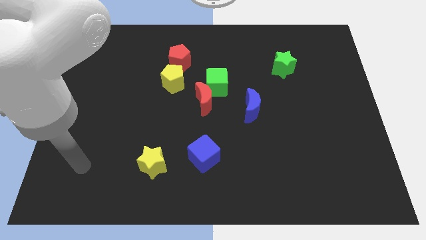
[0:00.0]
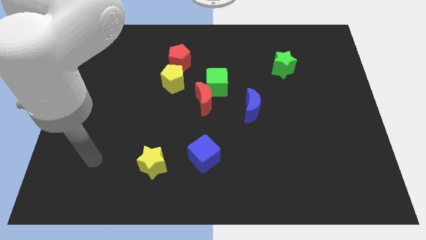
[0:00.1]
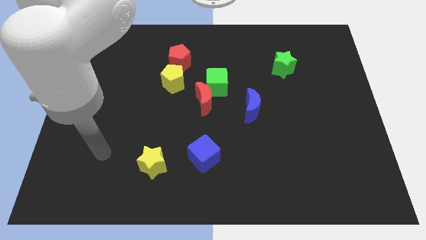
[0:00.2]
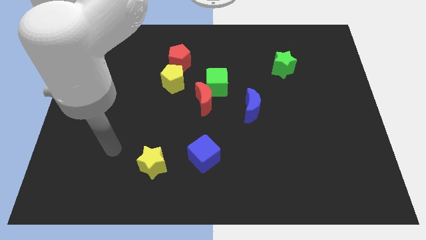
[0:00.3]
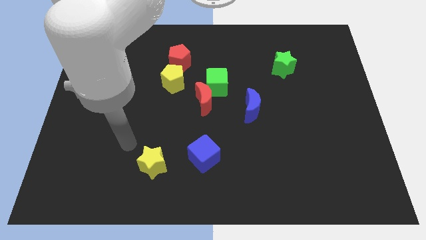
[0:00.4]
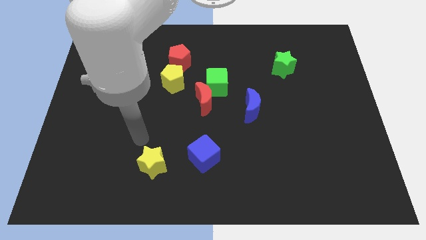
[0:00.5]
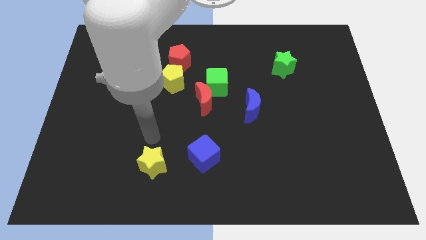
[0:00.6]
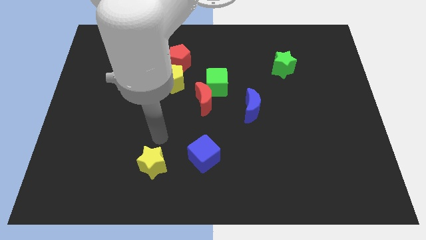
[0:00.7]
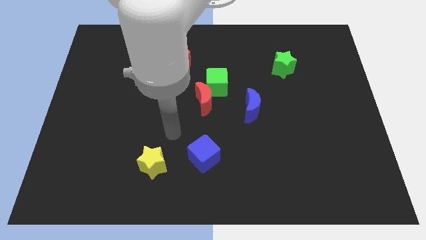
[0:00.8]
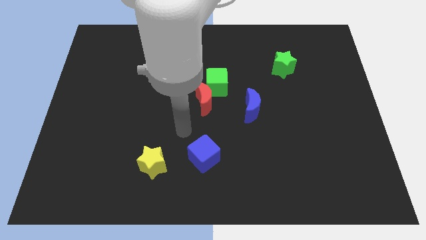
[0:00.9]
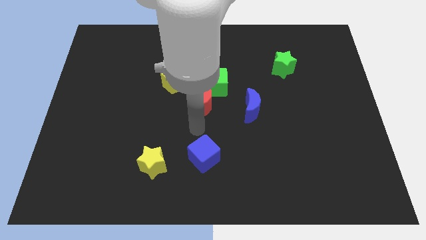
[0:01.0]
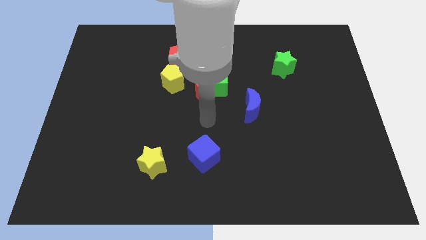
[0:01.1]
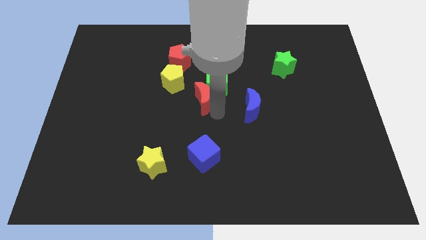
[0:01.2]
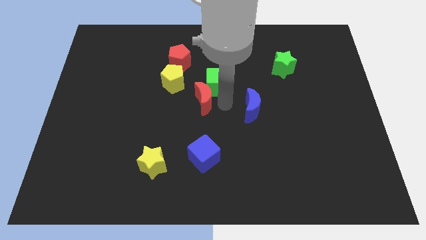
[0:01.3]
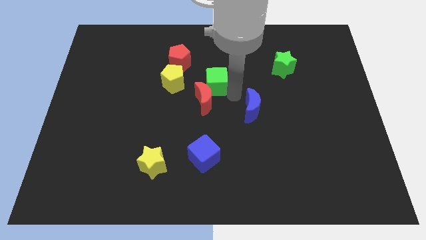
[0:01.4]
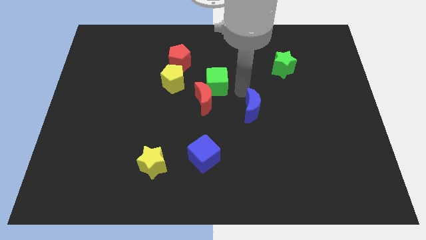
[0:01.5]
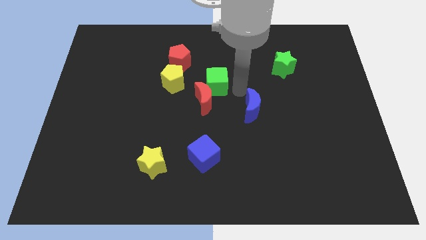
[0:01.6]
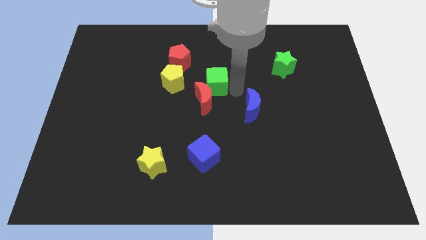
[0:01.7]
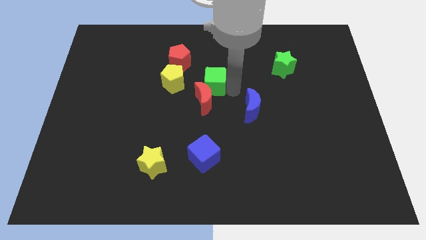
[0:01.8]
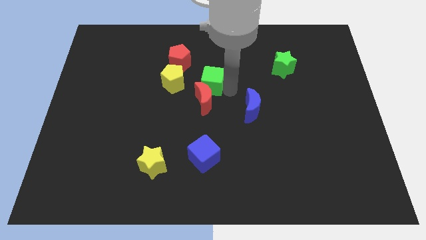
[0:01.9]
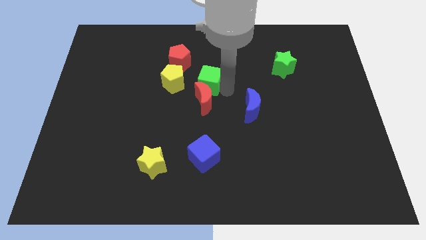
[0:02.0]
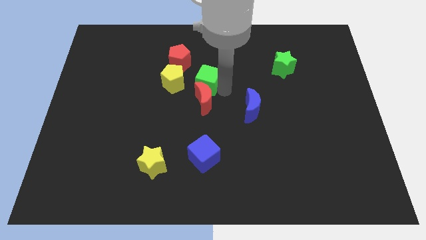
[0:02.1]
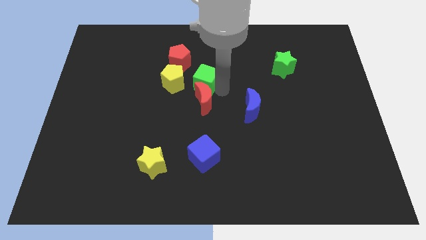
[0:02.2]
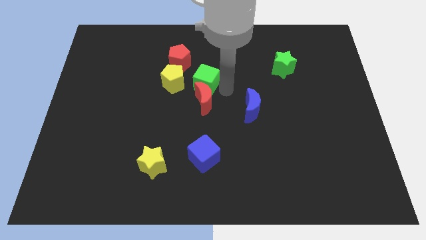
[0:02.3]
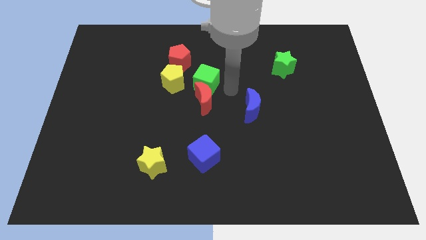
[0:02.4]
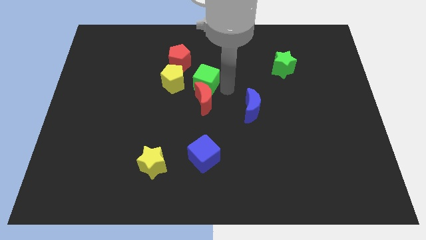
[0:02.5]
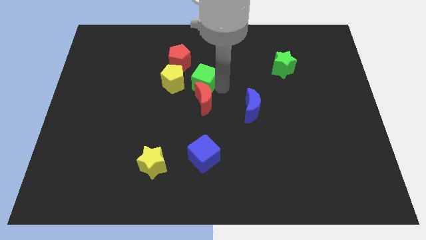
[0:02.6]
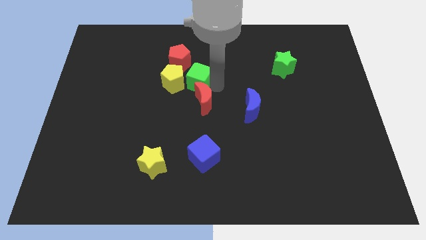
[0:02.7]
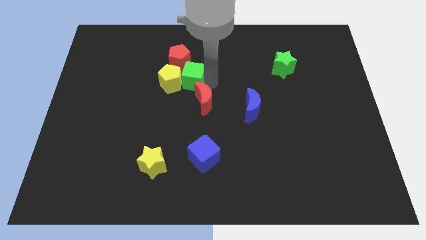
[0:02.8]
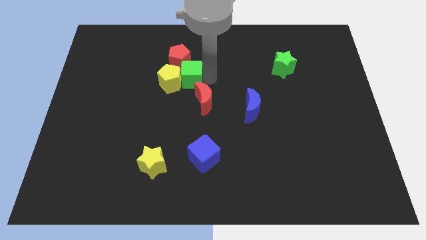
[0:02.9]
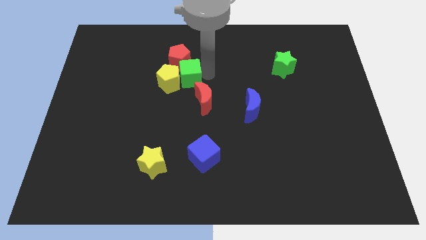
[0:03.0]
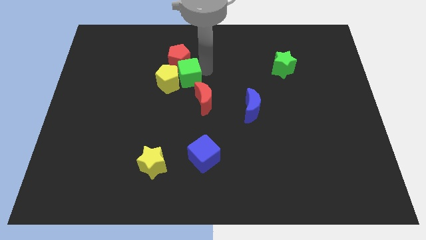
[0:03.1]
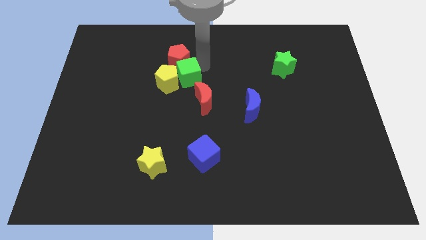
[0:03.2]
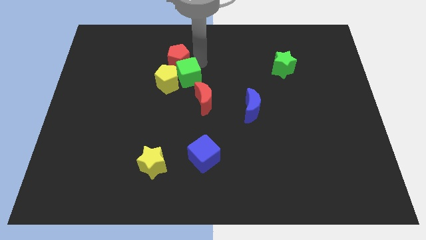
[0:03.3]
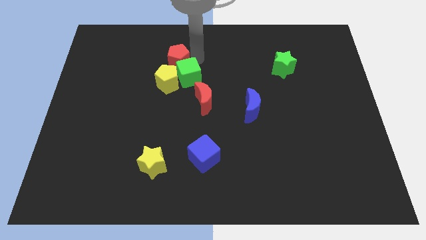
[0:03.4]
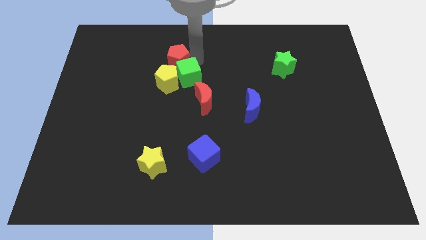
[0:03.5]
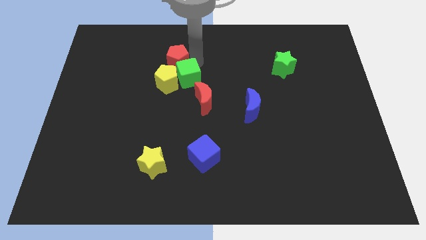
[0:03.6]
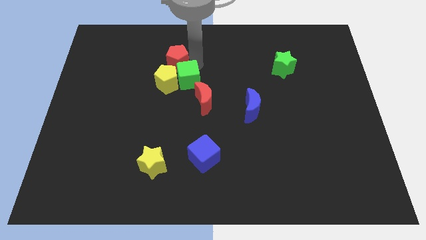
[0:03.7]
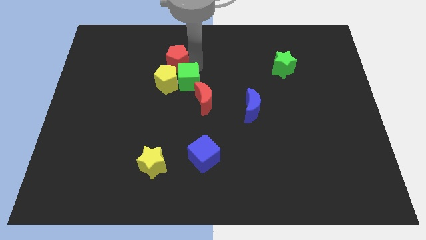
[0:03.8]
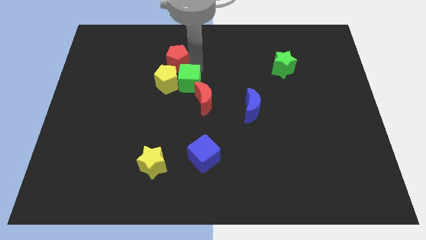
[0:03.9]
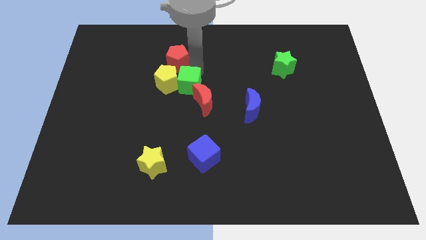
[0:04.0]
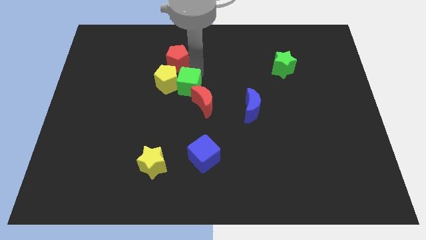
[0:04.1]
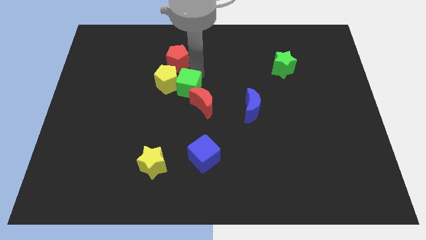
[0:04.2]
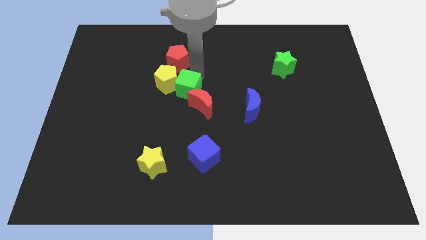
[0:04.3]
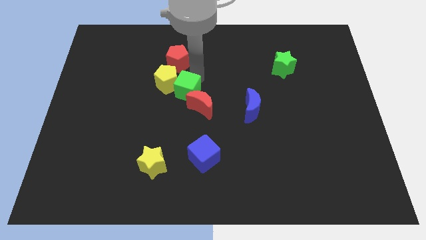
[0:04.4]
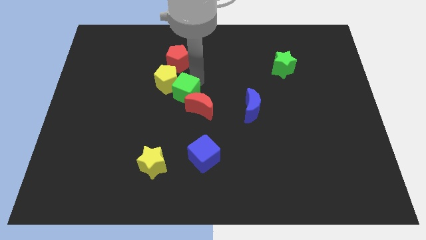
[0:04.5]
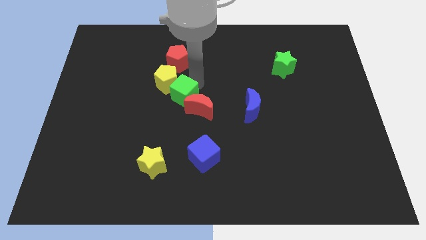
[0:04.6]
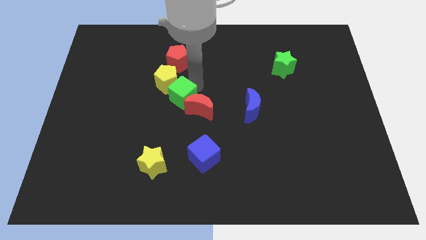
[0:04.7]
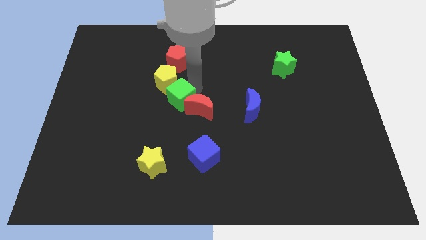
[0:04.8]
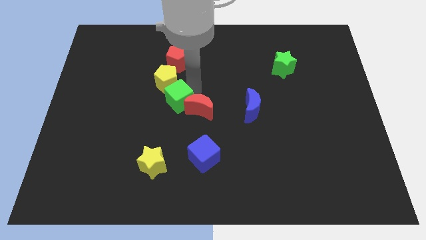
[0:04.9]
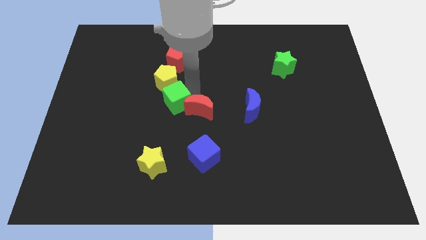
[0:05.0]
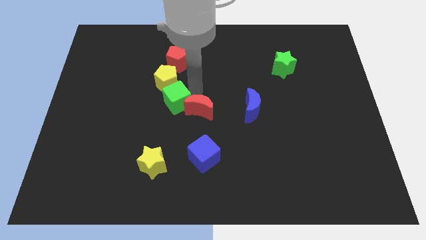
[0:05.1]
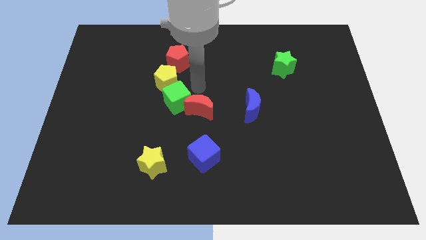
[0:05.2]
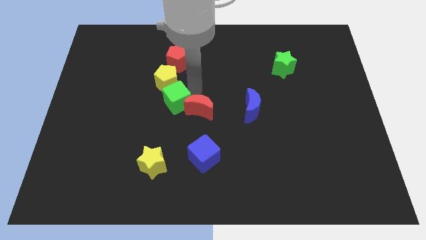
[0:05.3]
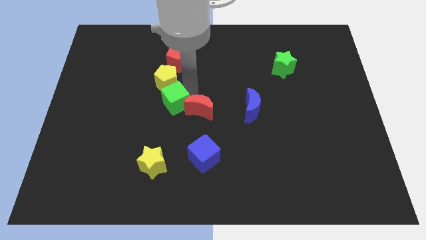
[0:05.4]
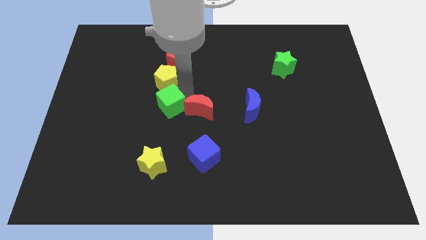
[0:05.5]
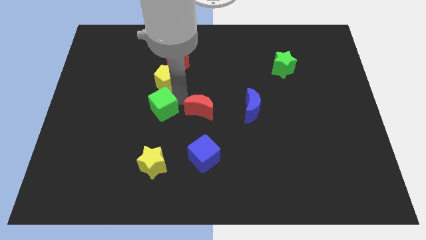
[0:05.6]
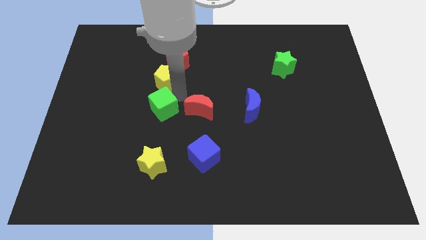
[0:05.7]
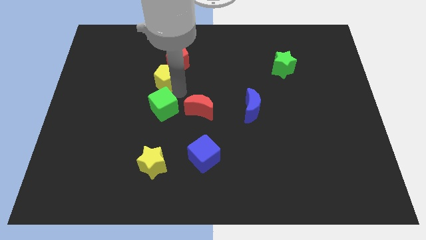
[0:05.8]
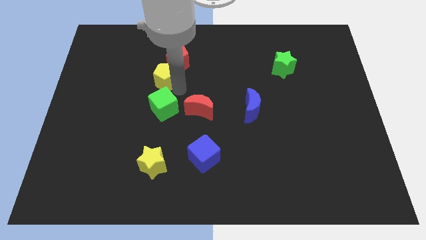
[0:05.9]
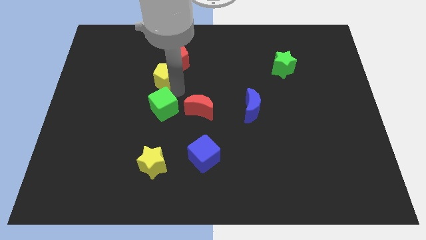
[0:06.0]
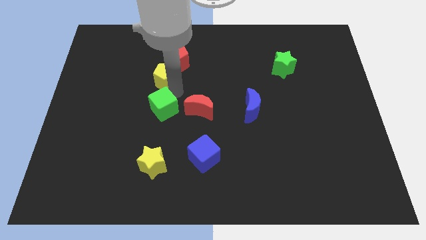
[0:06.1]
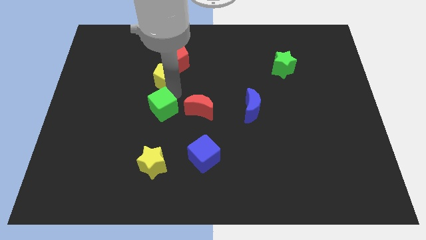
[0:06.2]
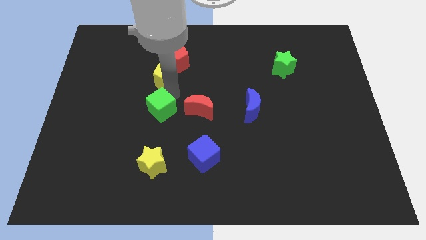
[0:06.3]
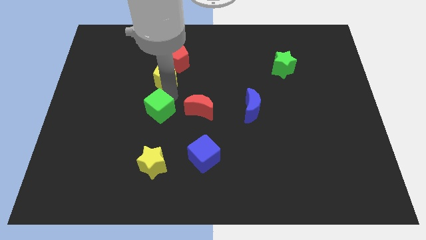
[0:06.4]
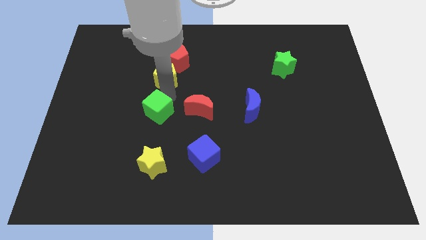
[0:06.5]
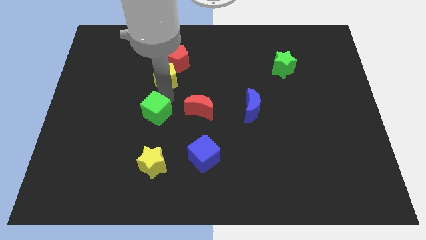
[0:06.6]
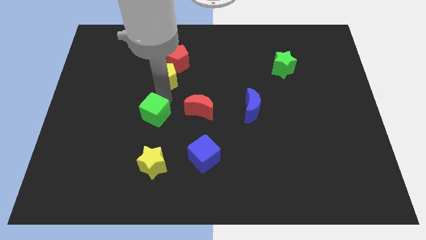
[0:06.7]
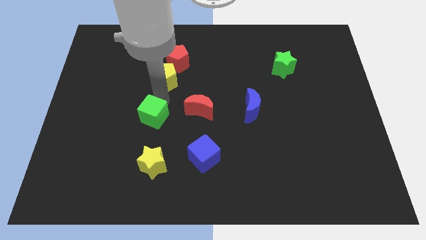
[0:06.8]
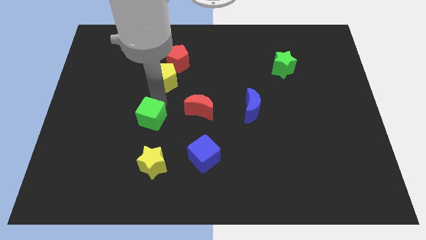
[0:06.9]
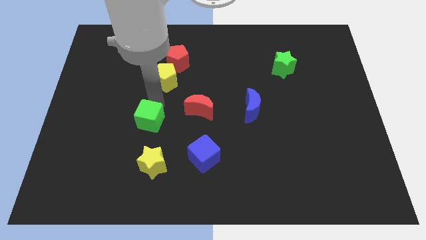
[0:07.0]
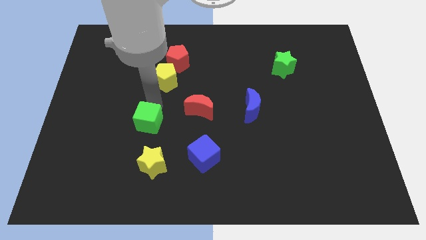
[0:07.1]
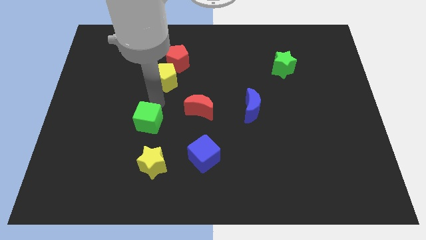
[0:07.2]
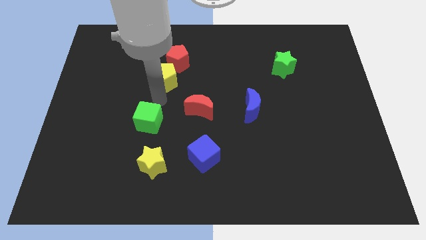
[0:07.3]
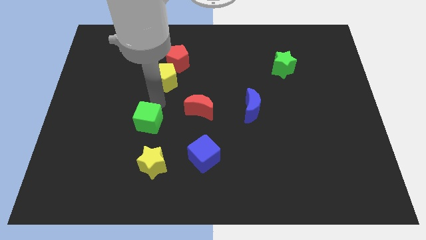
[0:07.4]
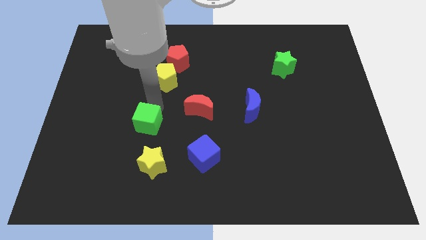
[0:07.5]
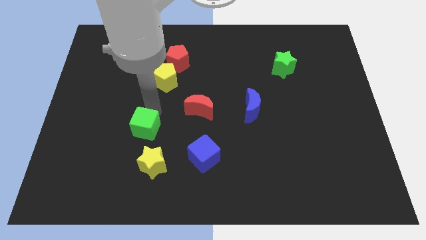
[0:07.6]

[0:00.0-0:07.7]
push the green cube down and to the left

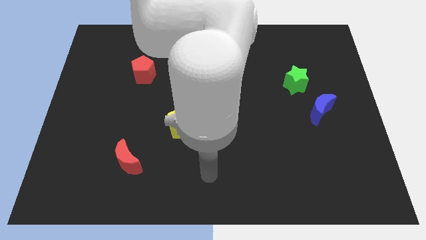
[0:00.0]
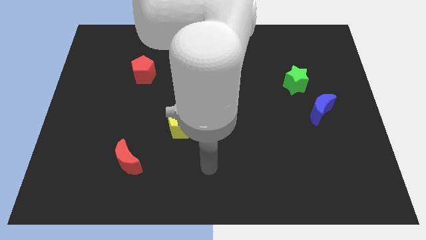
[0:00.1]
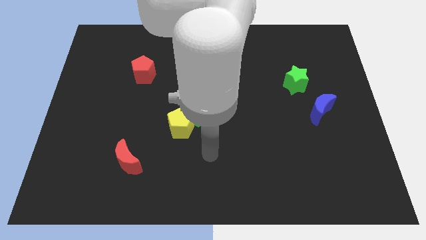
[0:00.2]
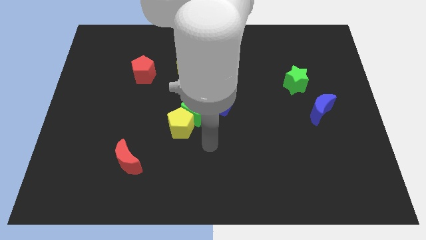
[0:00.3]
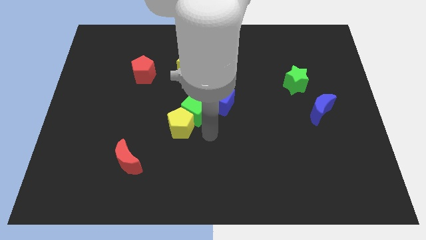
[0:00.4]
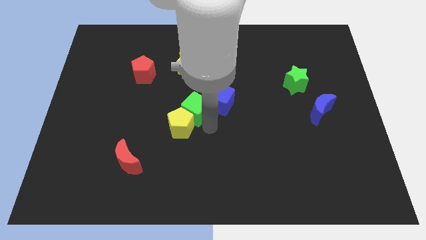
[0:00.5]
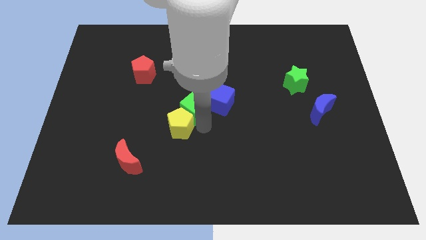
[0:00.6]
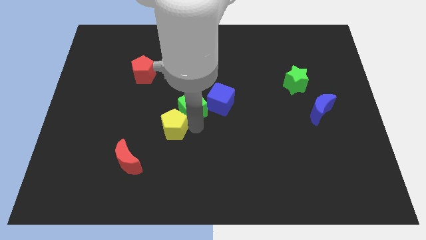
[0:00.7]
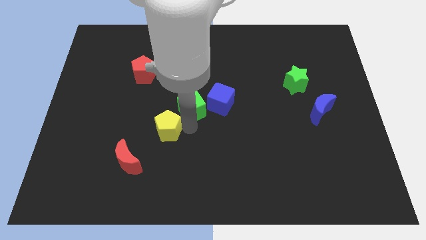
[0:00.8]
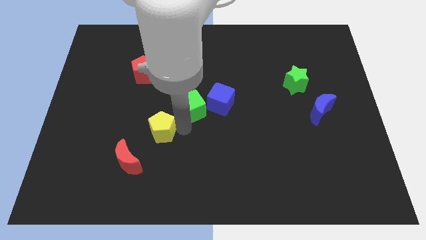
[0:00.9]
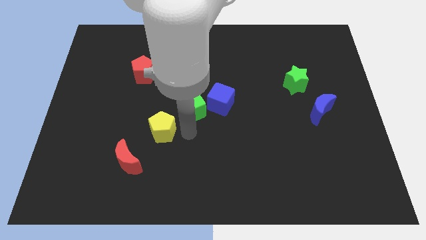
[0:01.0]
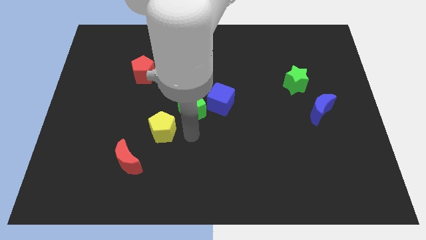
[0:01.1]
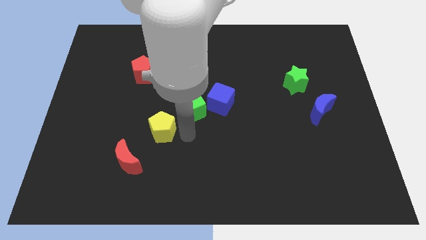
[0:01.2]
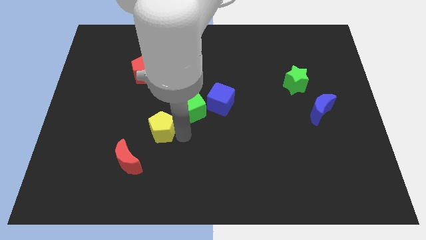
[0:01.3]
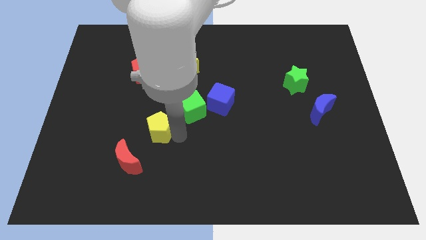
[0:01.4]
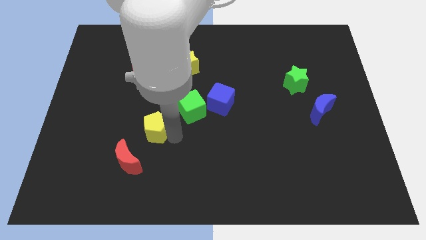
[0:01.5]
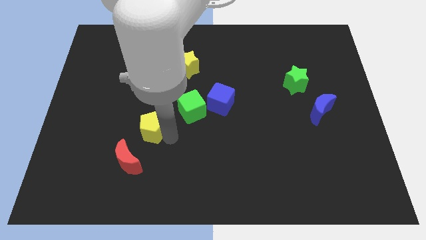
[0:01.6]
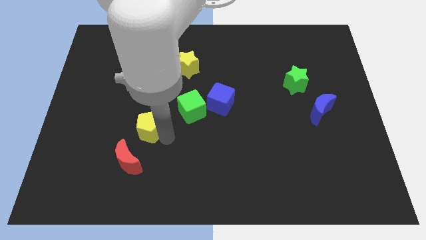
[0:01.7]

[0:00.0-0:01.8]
slide the yellow pentagon left a little bit
